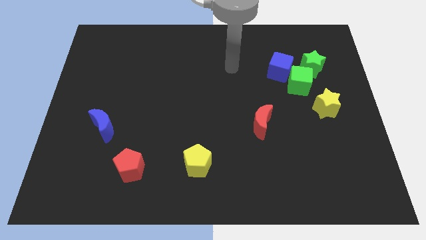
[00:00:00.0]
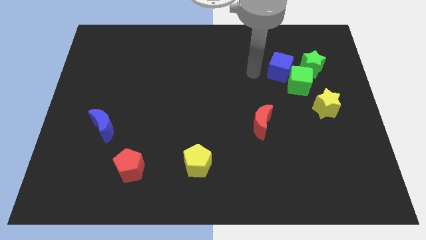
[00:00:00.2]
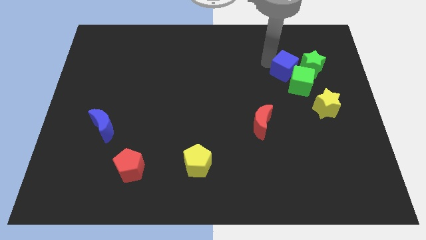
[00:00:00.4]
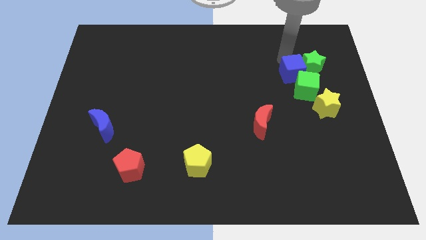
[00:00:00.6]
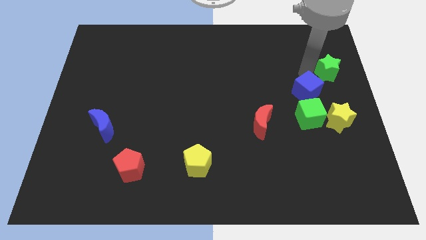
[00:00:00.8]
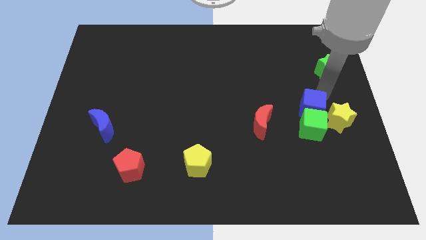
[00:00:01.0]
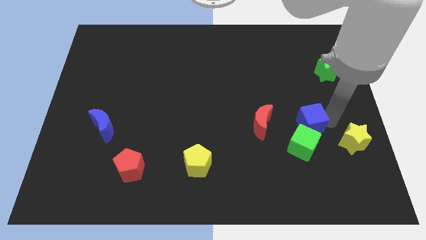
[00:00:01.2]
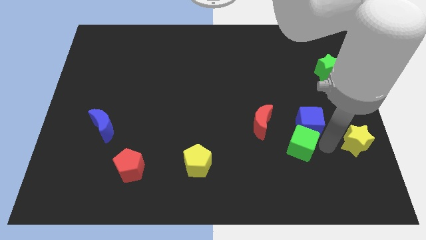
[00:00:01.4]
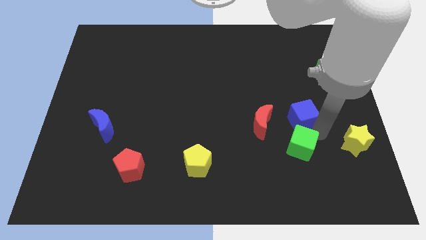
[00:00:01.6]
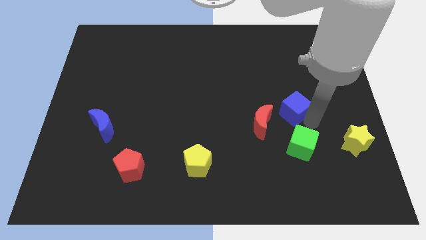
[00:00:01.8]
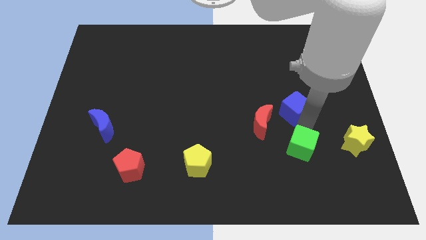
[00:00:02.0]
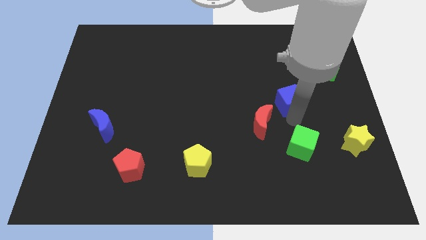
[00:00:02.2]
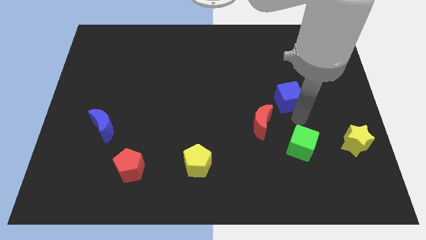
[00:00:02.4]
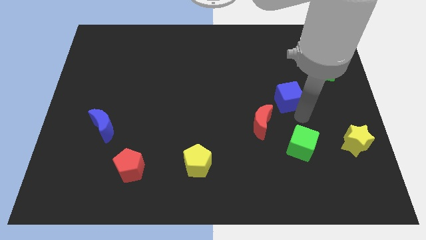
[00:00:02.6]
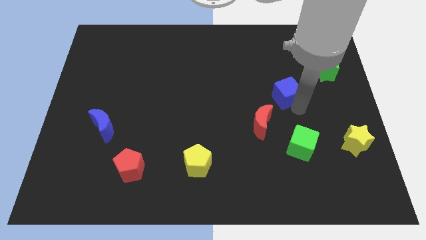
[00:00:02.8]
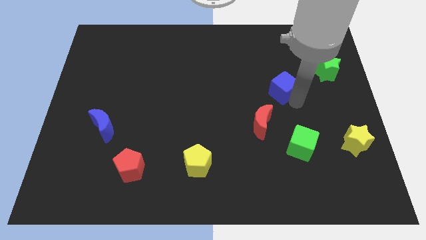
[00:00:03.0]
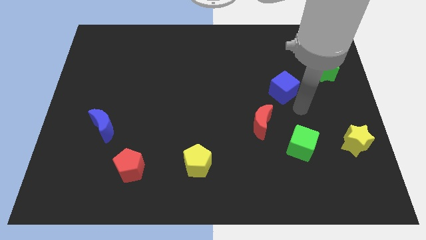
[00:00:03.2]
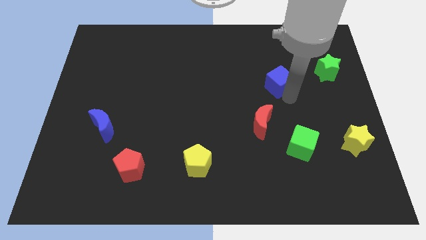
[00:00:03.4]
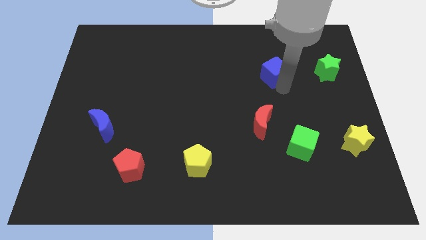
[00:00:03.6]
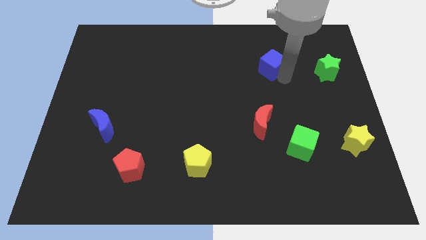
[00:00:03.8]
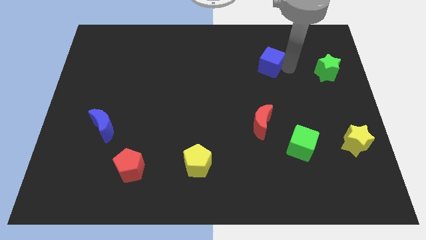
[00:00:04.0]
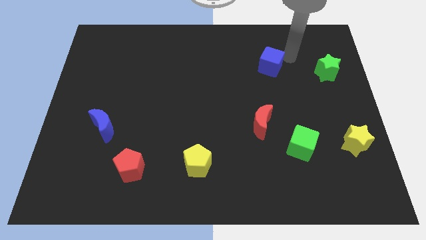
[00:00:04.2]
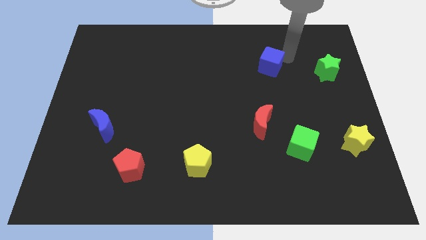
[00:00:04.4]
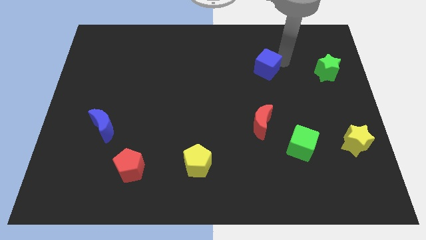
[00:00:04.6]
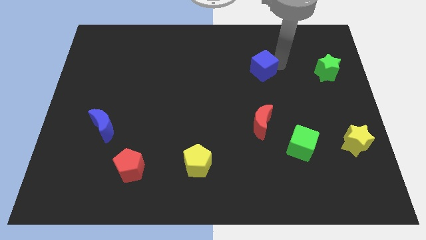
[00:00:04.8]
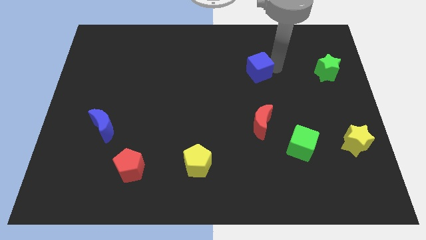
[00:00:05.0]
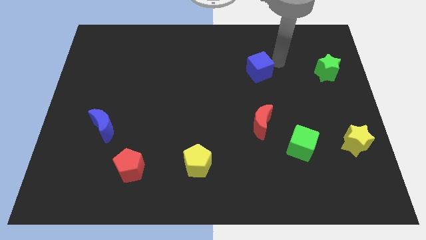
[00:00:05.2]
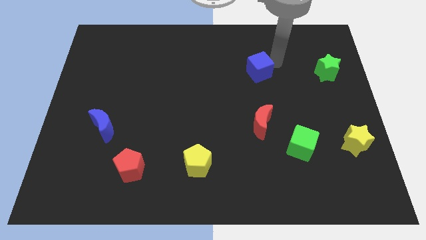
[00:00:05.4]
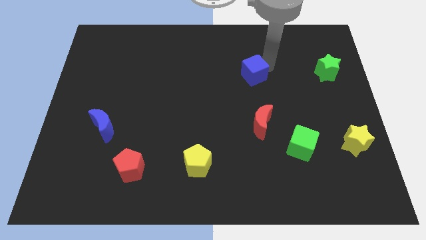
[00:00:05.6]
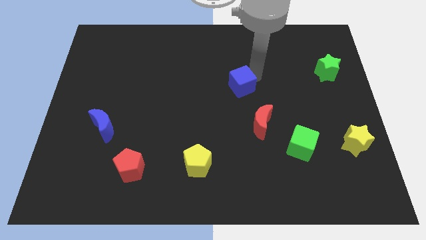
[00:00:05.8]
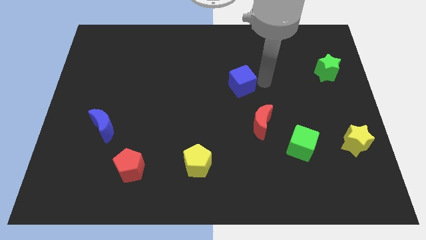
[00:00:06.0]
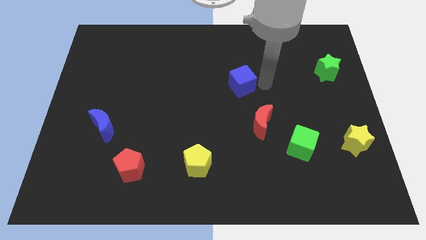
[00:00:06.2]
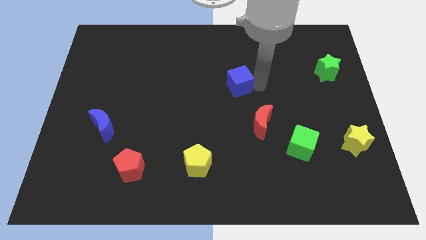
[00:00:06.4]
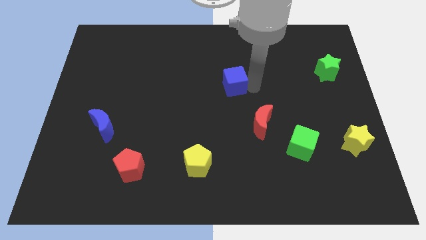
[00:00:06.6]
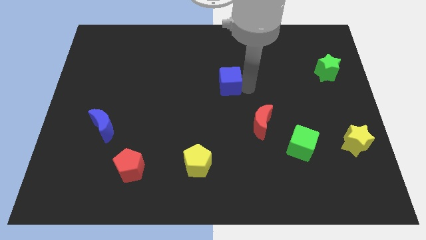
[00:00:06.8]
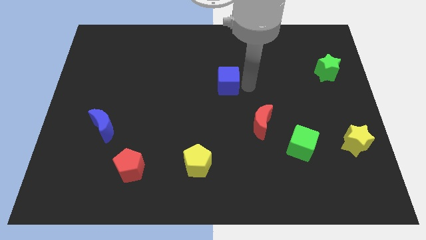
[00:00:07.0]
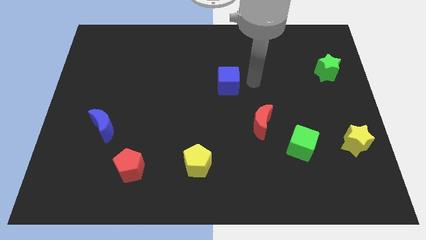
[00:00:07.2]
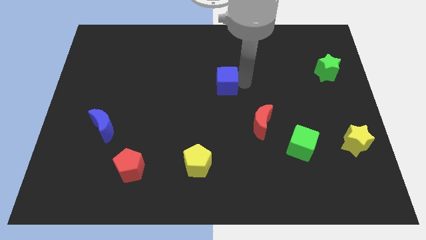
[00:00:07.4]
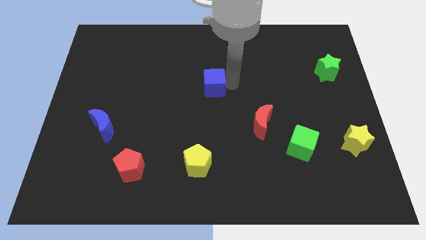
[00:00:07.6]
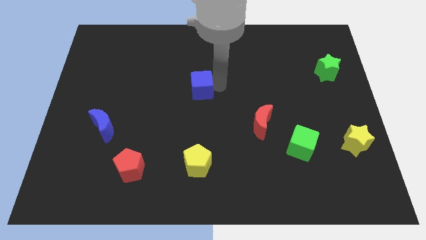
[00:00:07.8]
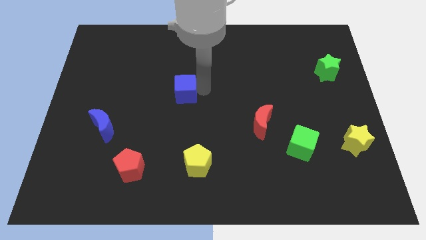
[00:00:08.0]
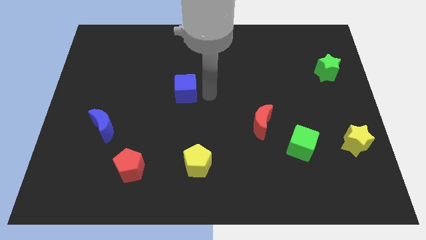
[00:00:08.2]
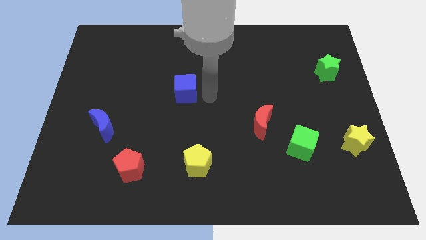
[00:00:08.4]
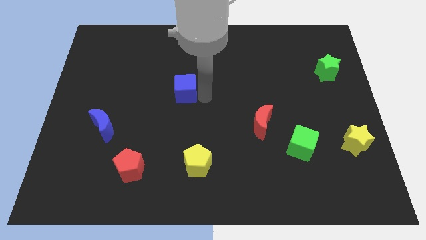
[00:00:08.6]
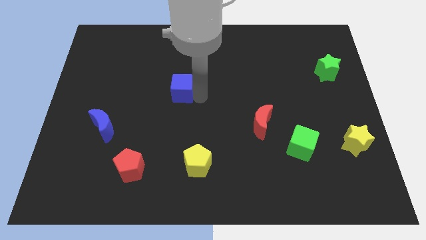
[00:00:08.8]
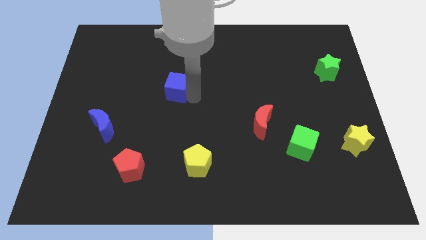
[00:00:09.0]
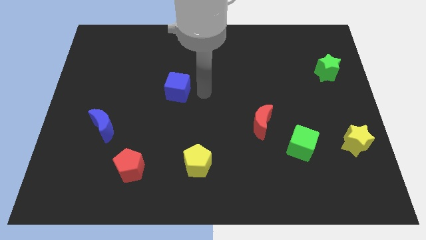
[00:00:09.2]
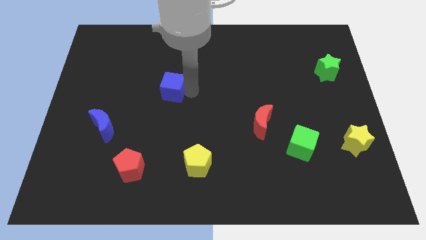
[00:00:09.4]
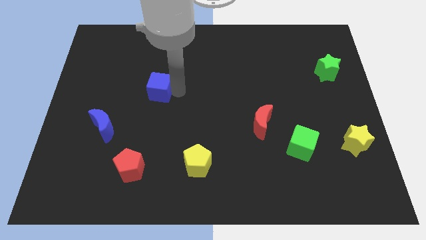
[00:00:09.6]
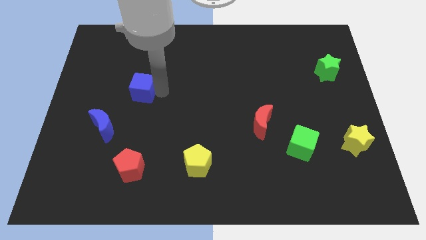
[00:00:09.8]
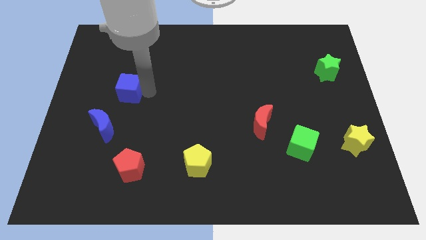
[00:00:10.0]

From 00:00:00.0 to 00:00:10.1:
put the blue cube above the blue moon

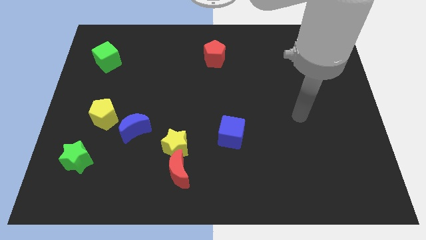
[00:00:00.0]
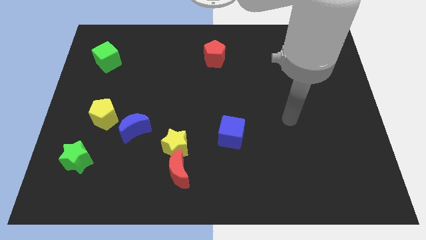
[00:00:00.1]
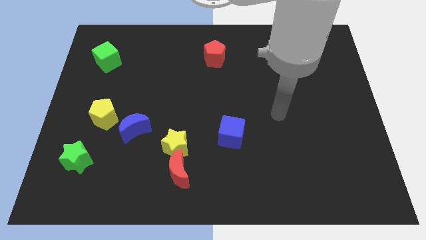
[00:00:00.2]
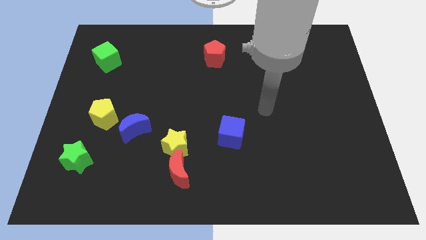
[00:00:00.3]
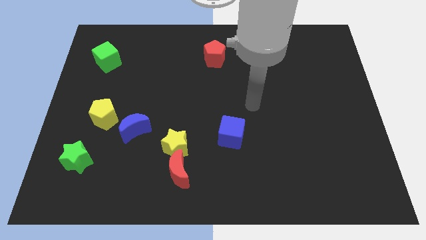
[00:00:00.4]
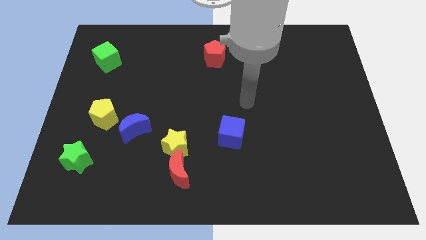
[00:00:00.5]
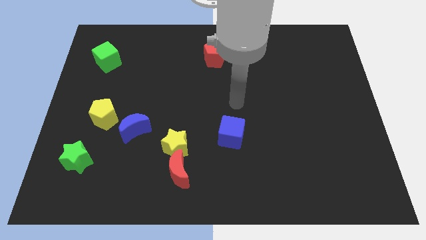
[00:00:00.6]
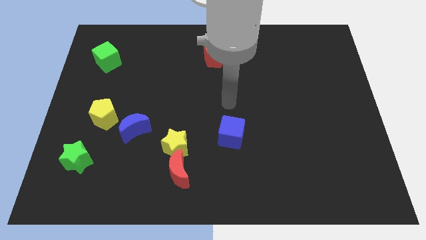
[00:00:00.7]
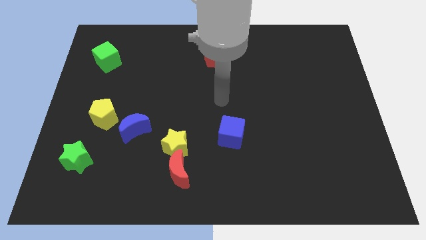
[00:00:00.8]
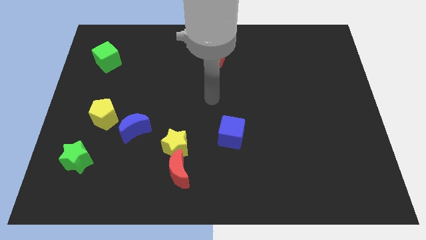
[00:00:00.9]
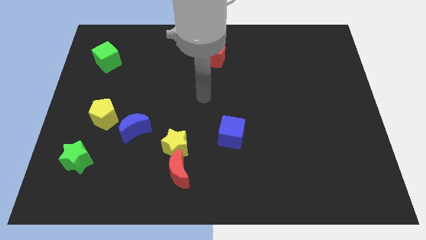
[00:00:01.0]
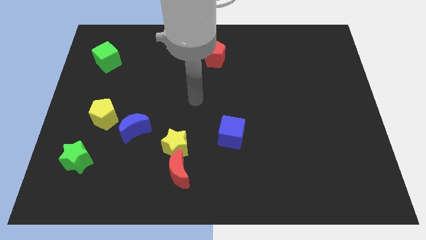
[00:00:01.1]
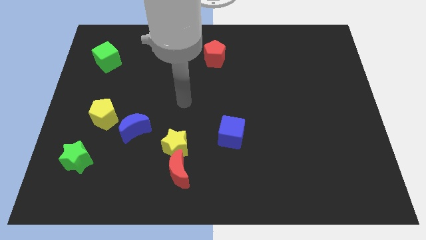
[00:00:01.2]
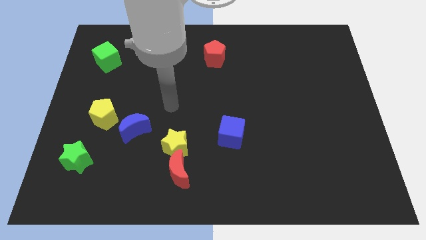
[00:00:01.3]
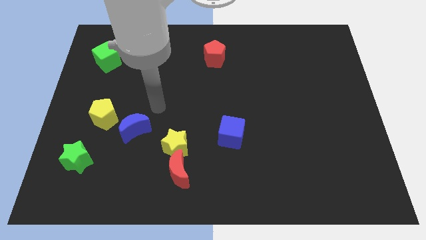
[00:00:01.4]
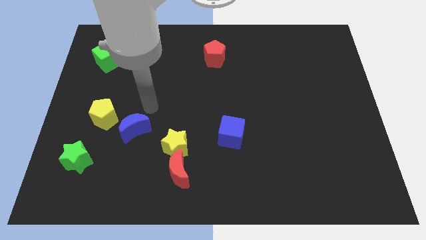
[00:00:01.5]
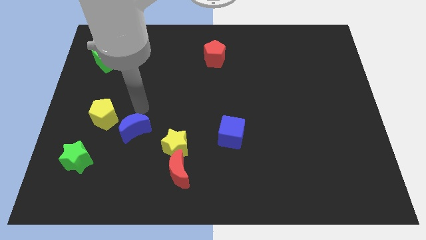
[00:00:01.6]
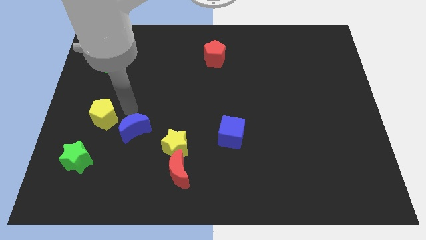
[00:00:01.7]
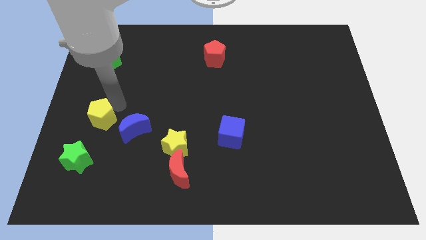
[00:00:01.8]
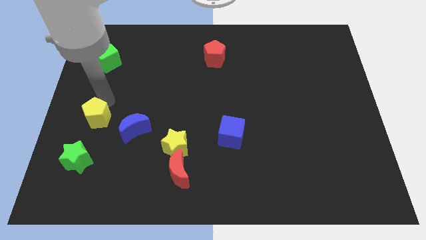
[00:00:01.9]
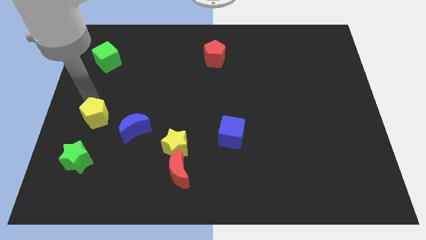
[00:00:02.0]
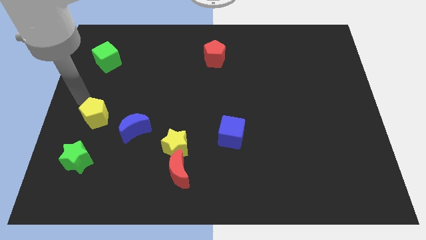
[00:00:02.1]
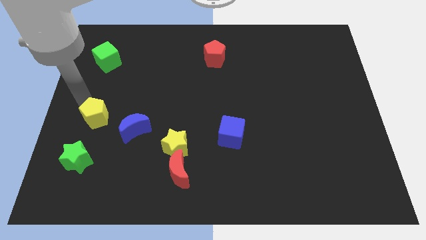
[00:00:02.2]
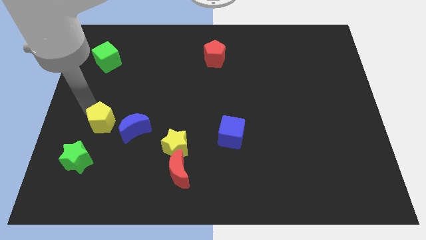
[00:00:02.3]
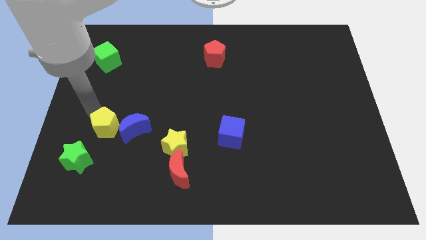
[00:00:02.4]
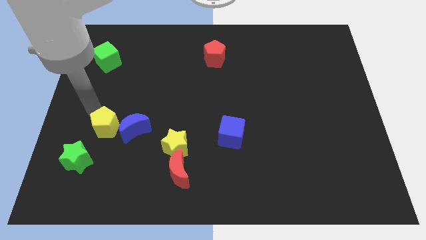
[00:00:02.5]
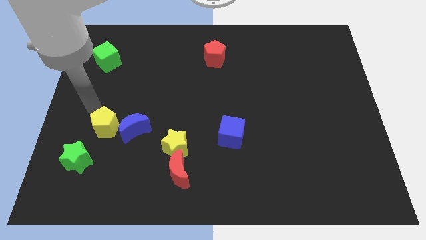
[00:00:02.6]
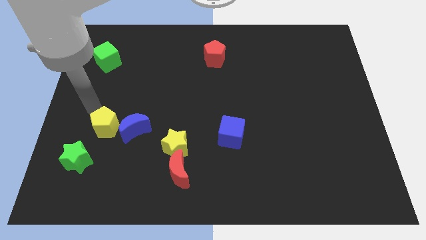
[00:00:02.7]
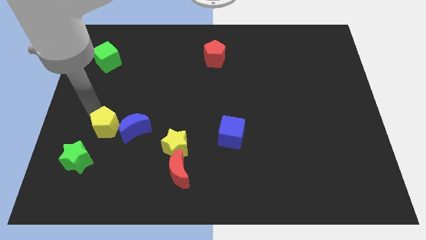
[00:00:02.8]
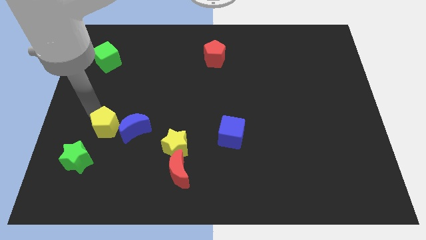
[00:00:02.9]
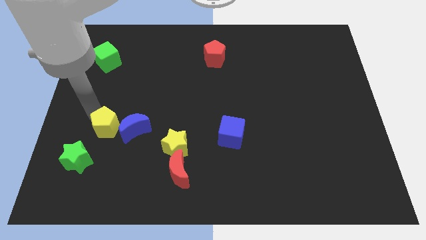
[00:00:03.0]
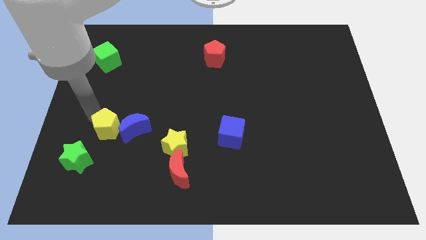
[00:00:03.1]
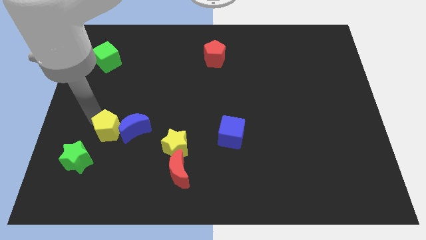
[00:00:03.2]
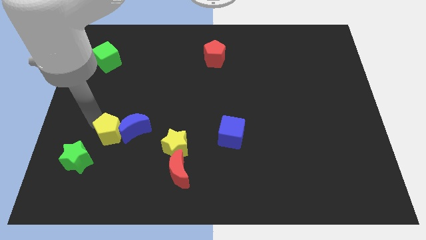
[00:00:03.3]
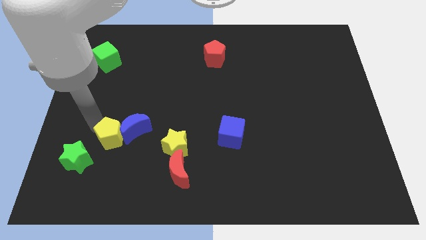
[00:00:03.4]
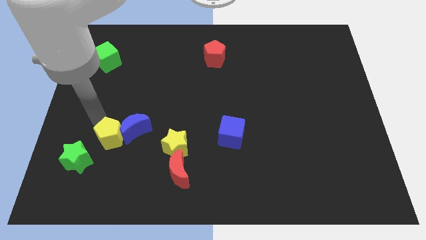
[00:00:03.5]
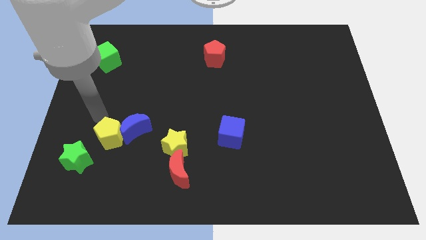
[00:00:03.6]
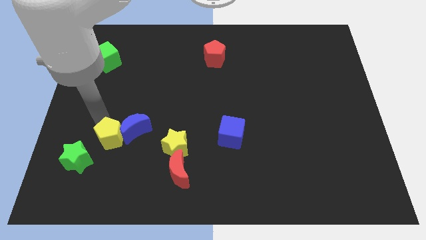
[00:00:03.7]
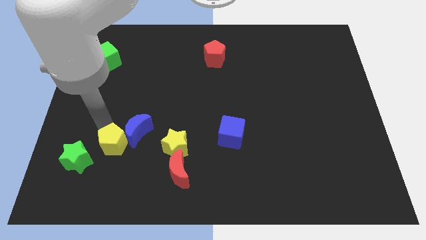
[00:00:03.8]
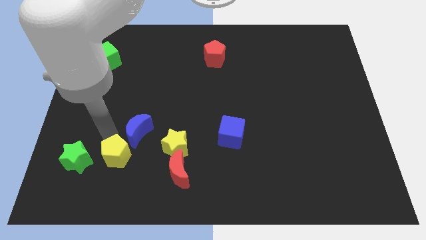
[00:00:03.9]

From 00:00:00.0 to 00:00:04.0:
push the yellow pentagon to the bottom of the blue moon
